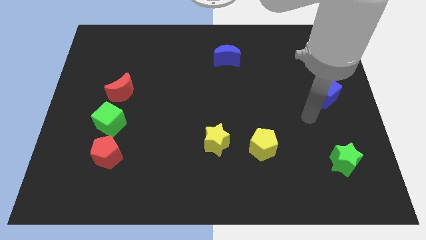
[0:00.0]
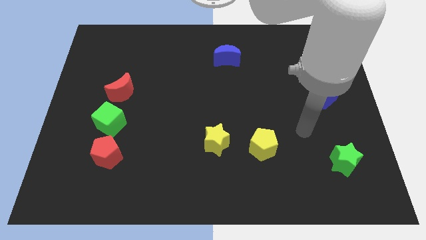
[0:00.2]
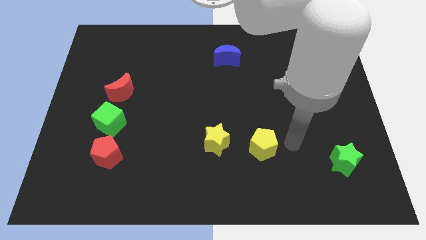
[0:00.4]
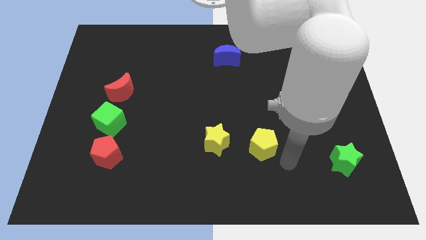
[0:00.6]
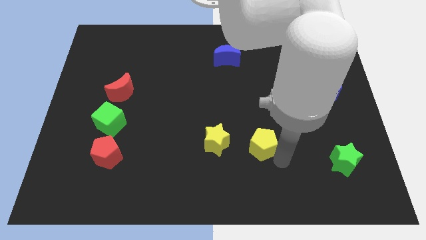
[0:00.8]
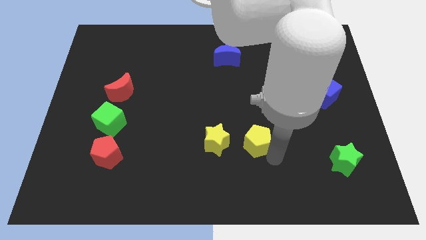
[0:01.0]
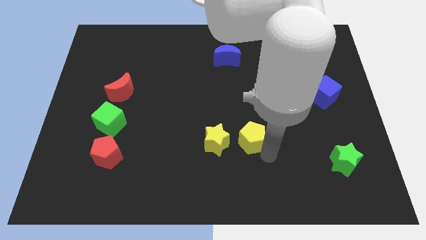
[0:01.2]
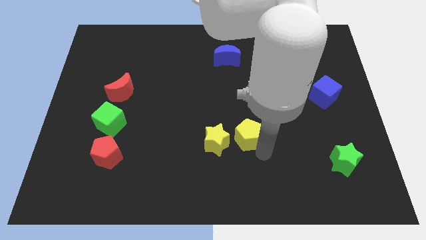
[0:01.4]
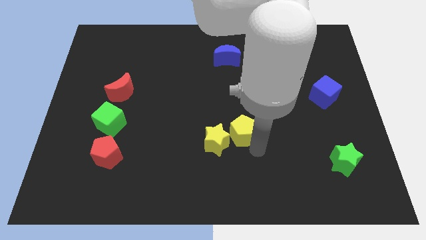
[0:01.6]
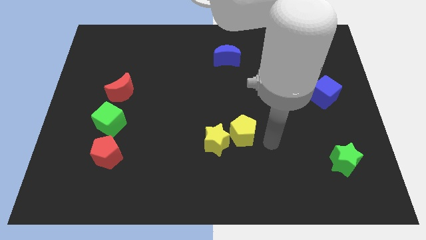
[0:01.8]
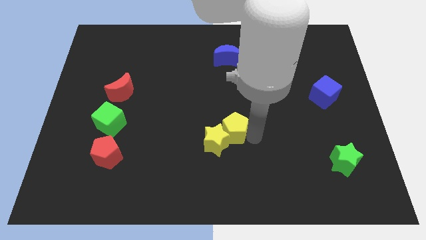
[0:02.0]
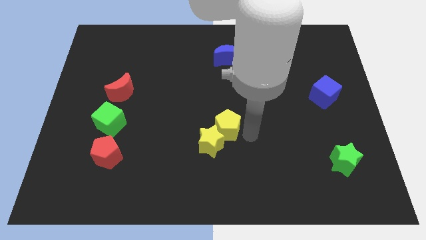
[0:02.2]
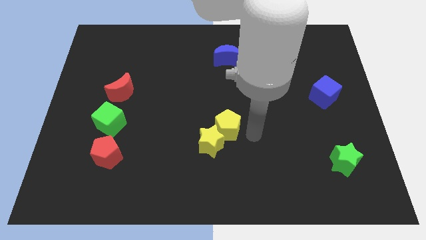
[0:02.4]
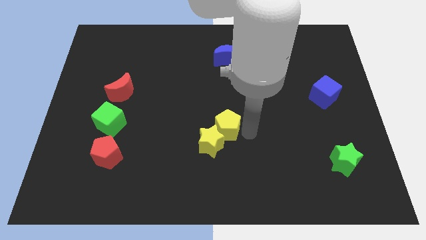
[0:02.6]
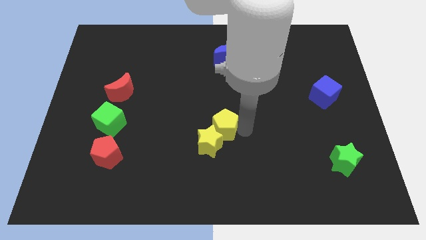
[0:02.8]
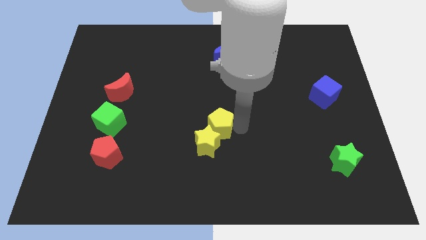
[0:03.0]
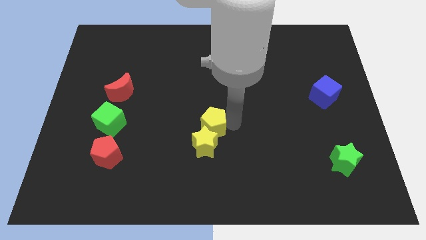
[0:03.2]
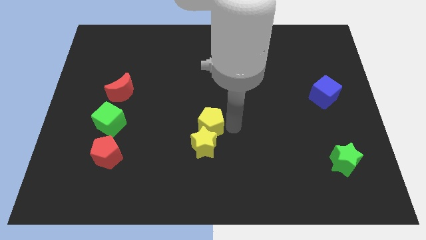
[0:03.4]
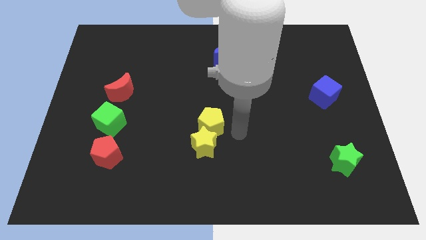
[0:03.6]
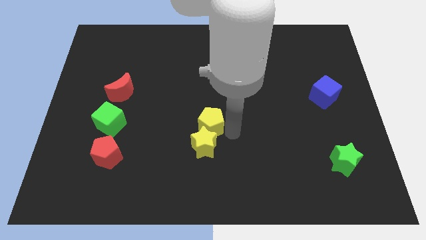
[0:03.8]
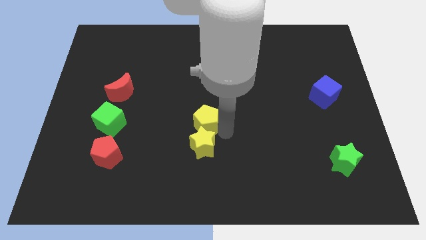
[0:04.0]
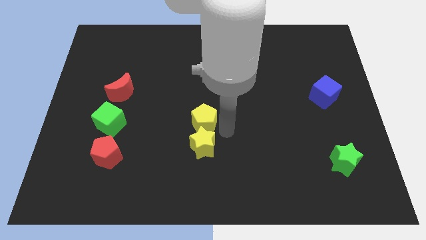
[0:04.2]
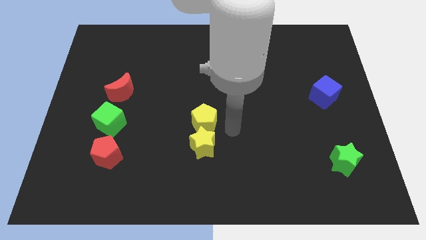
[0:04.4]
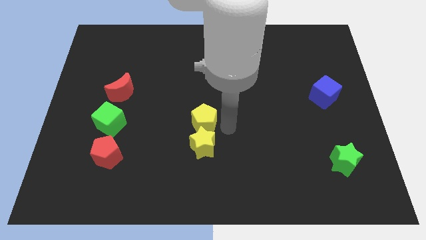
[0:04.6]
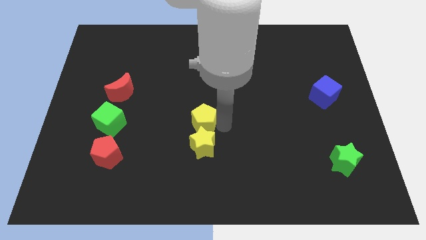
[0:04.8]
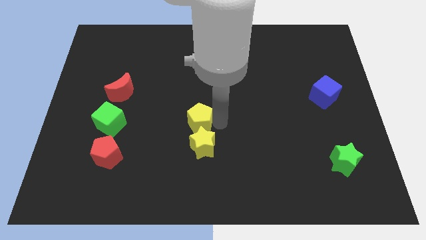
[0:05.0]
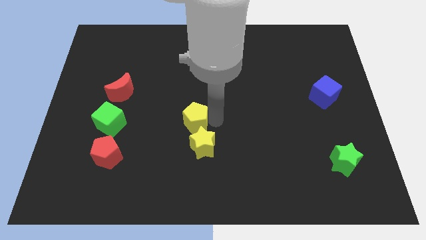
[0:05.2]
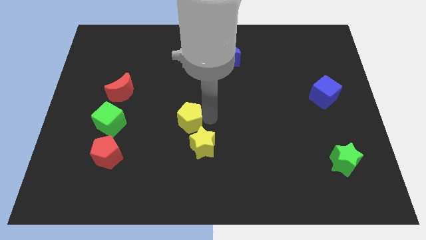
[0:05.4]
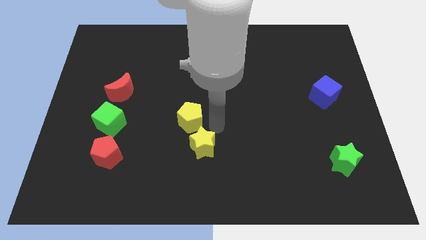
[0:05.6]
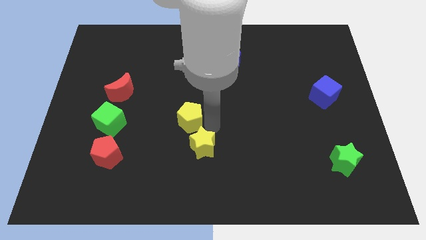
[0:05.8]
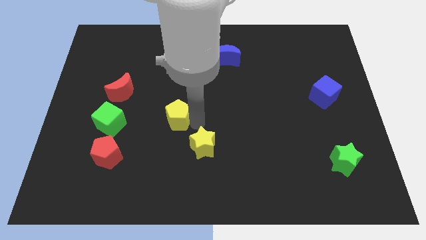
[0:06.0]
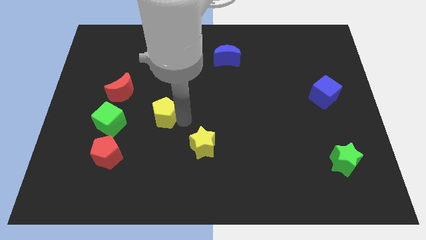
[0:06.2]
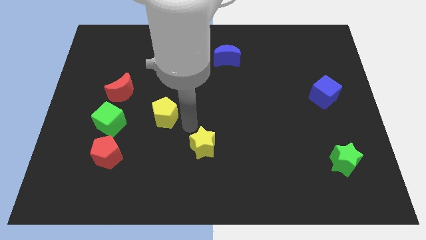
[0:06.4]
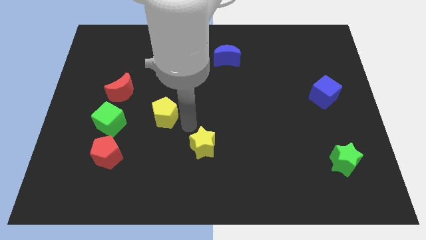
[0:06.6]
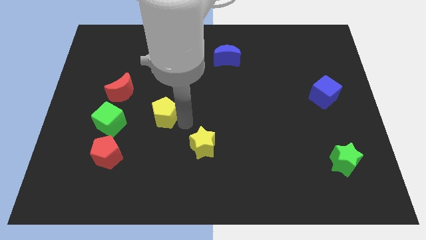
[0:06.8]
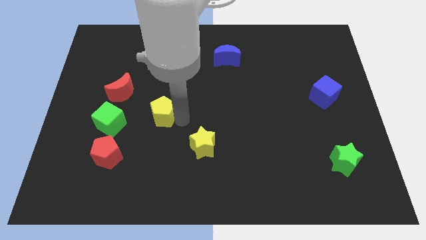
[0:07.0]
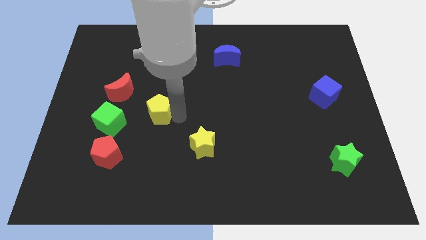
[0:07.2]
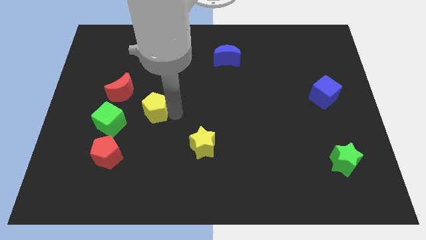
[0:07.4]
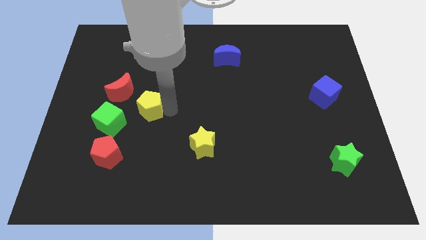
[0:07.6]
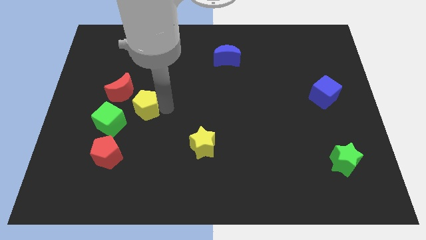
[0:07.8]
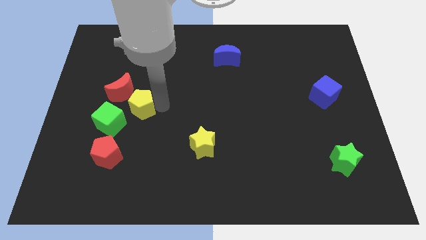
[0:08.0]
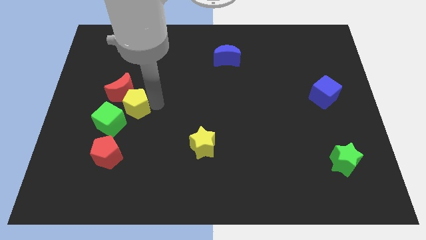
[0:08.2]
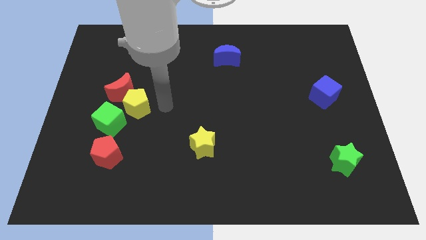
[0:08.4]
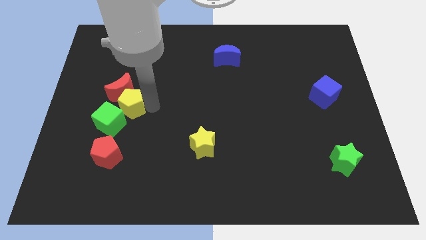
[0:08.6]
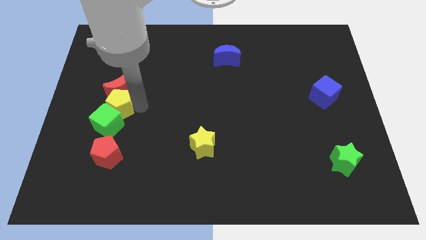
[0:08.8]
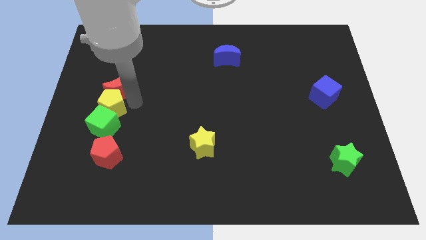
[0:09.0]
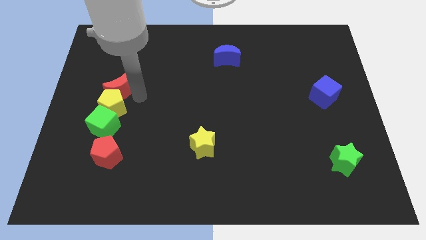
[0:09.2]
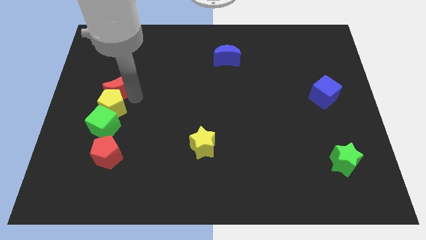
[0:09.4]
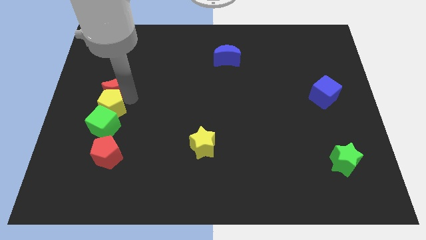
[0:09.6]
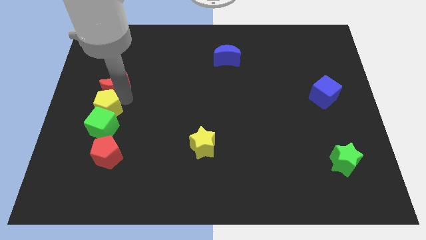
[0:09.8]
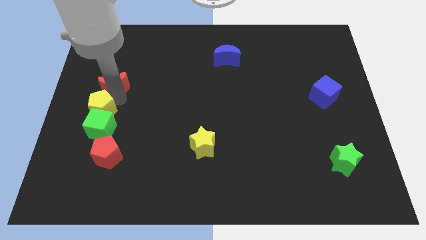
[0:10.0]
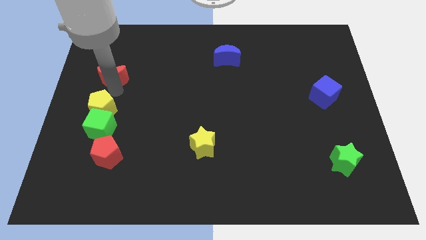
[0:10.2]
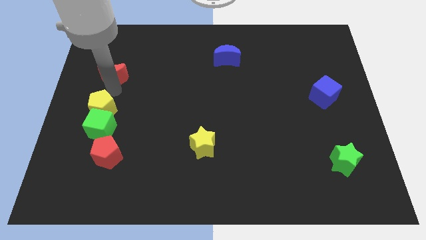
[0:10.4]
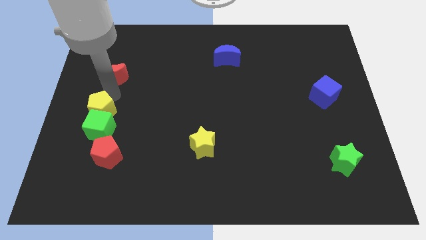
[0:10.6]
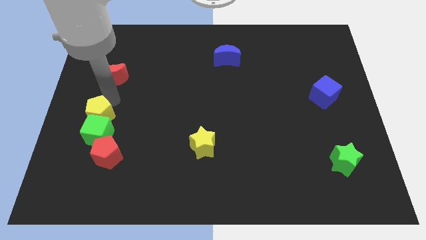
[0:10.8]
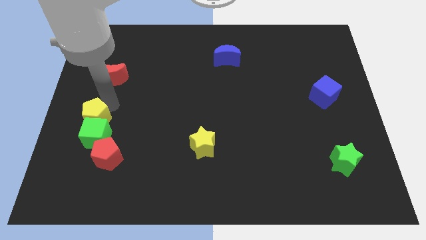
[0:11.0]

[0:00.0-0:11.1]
move the yellow pentagon diagonally up and to the left of the red pentagon

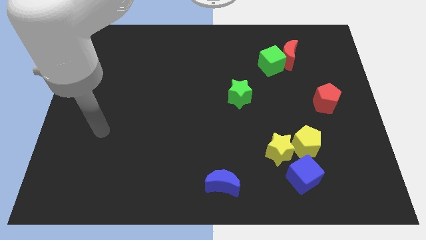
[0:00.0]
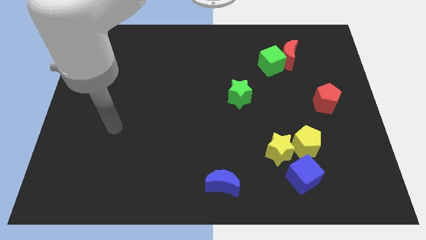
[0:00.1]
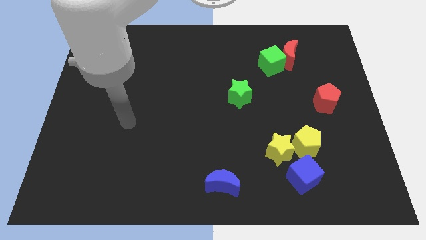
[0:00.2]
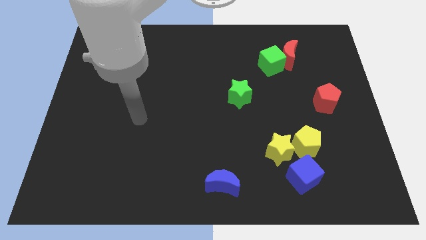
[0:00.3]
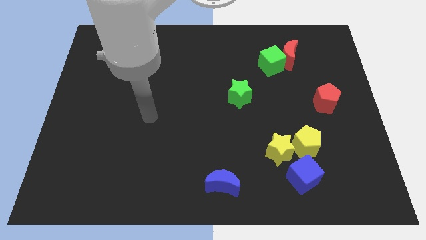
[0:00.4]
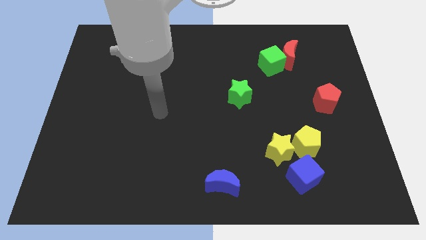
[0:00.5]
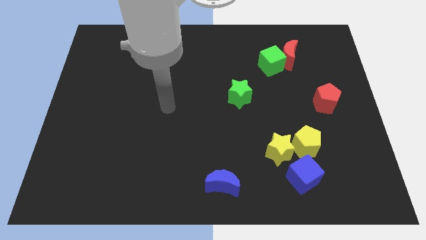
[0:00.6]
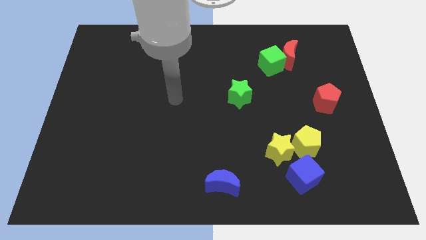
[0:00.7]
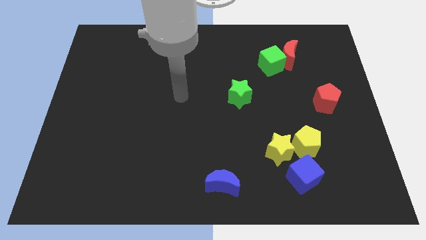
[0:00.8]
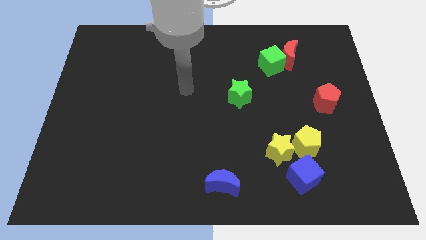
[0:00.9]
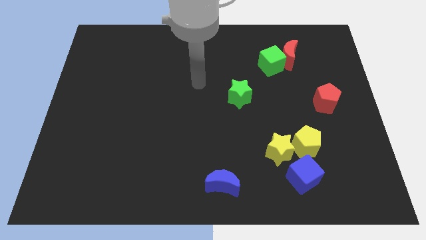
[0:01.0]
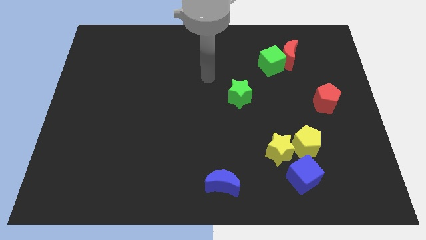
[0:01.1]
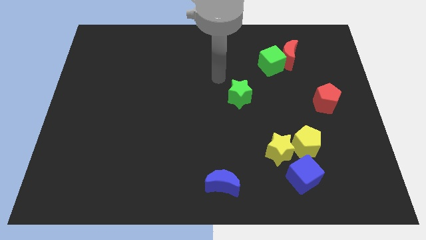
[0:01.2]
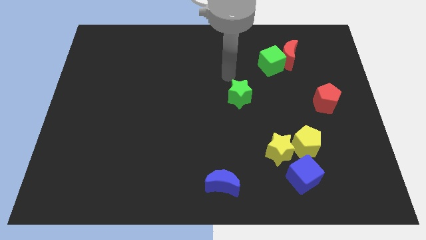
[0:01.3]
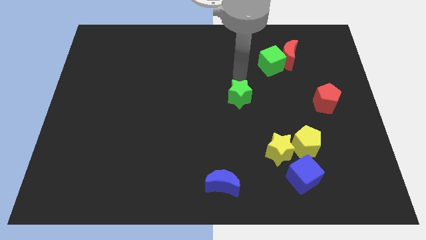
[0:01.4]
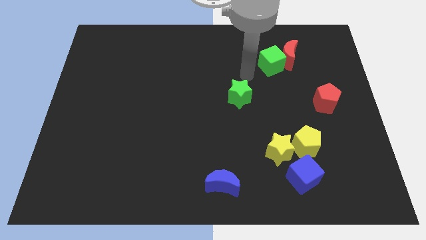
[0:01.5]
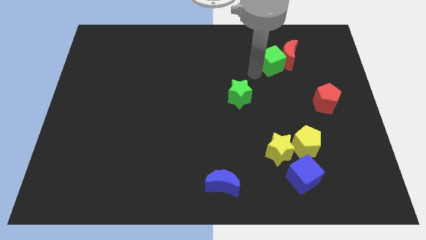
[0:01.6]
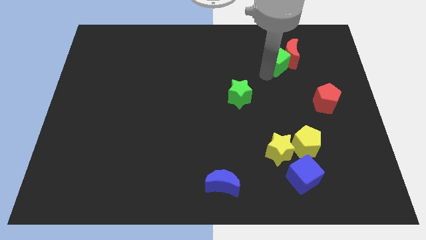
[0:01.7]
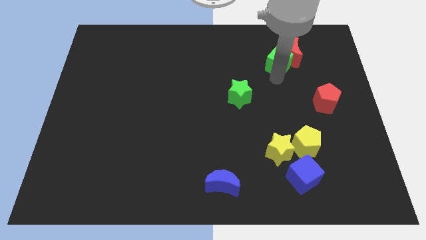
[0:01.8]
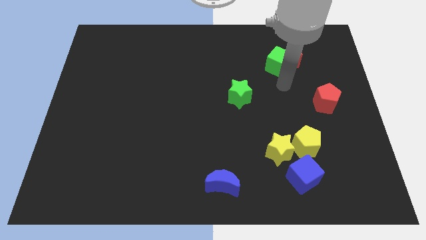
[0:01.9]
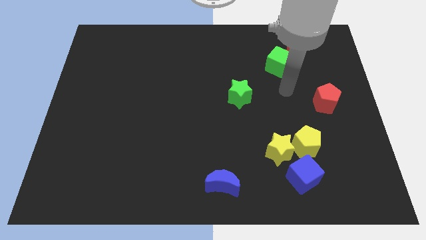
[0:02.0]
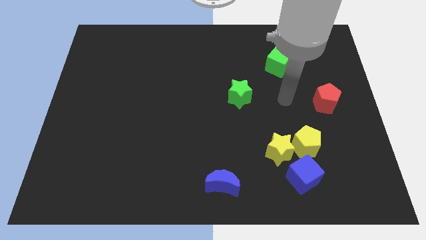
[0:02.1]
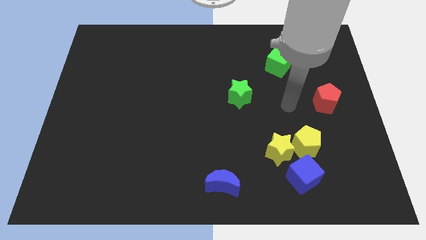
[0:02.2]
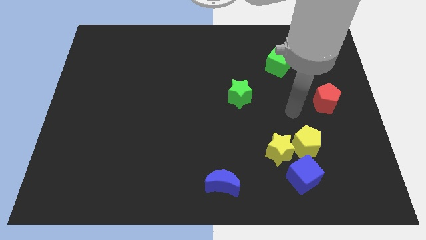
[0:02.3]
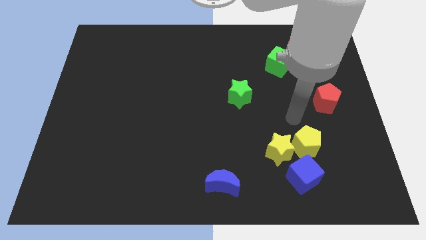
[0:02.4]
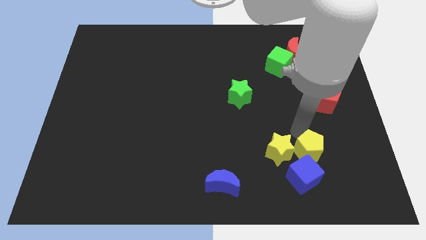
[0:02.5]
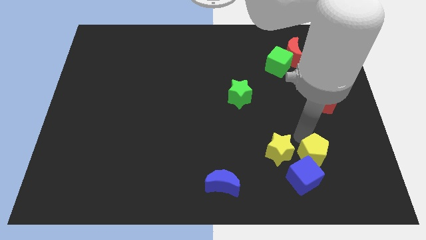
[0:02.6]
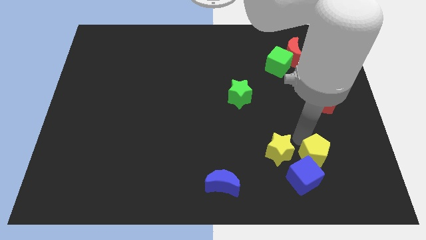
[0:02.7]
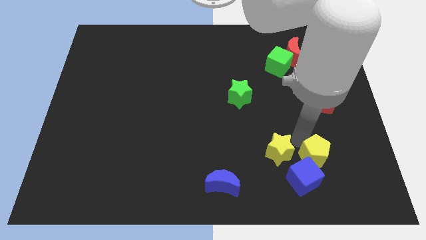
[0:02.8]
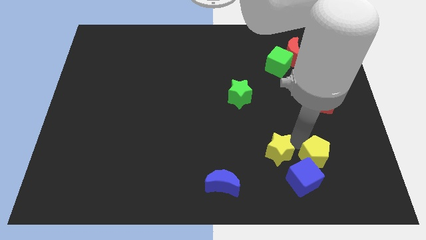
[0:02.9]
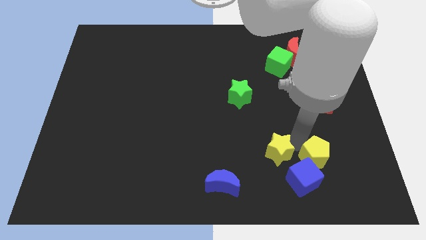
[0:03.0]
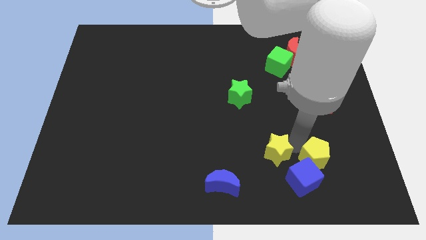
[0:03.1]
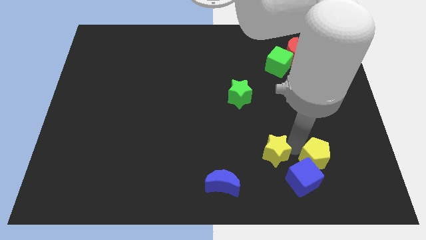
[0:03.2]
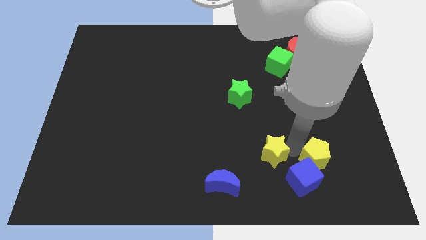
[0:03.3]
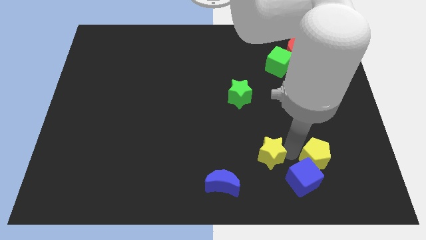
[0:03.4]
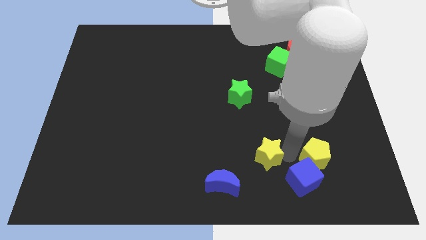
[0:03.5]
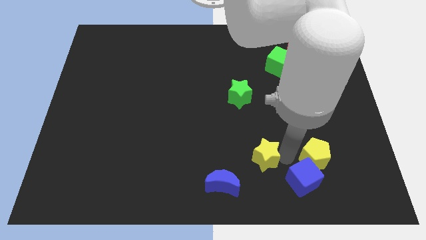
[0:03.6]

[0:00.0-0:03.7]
push the yellow star left of the blue cube
